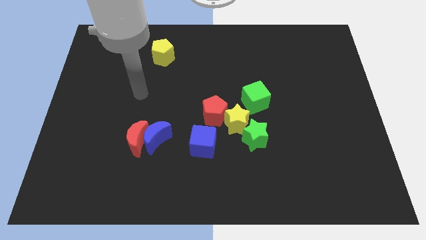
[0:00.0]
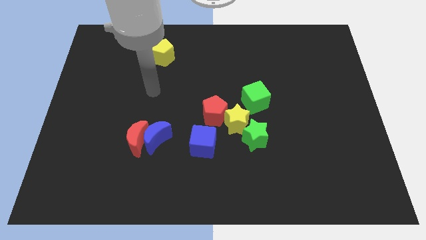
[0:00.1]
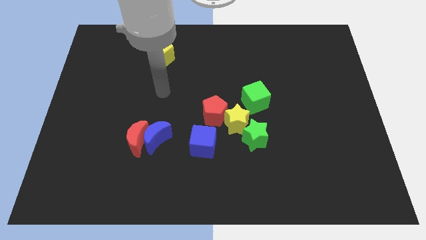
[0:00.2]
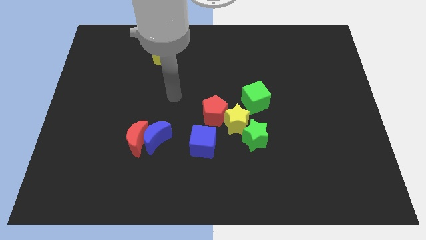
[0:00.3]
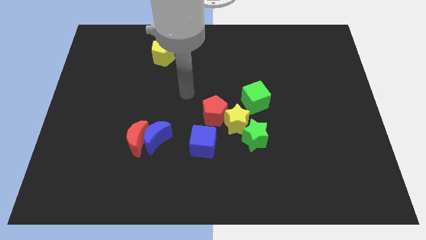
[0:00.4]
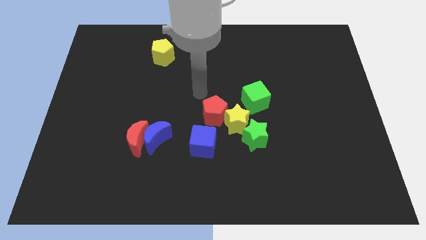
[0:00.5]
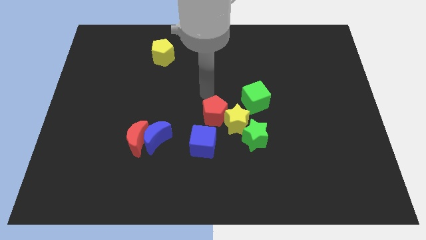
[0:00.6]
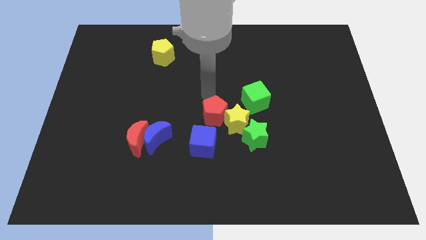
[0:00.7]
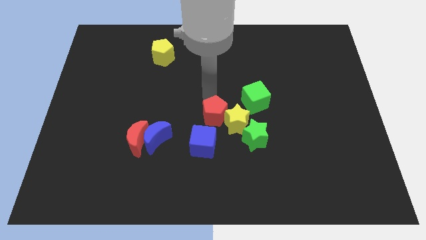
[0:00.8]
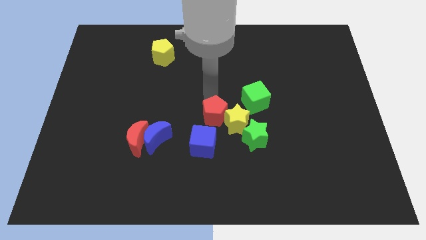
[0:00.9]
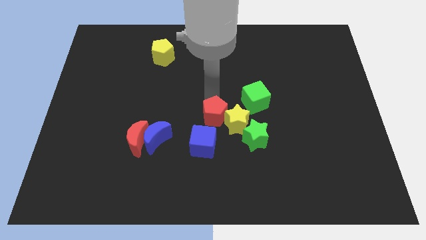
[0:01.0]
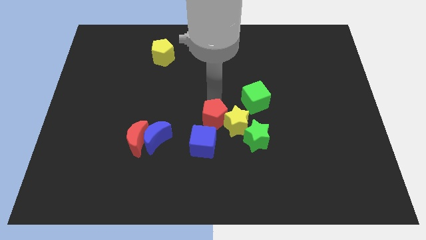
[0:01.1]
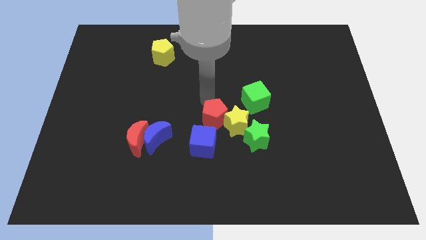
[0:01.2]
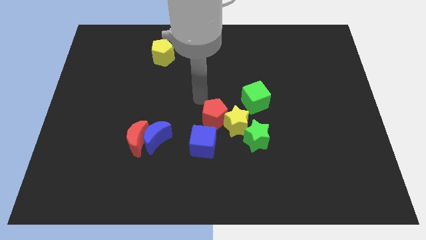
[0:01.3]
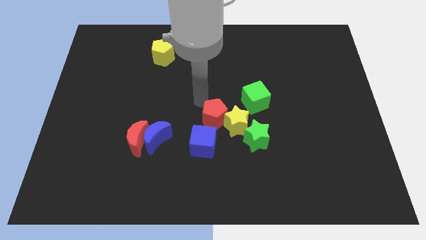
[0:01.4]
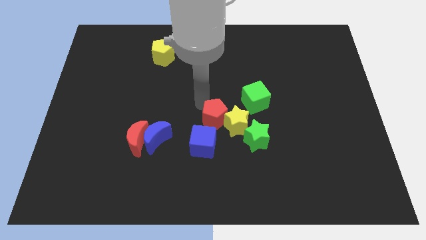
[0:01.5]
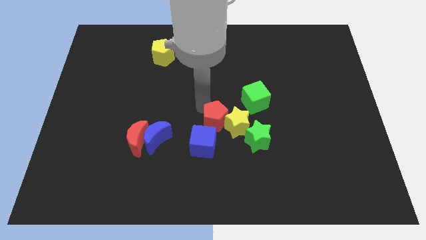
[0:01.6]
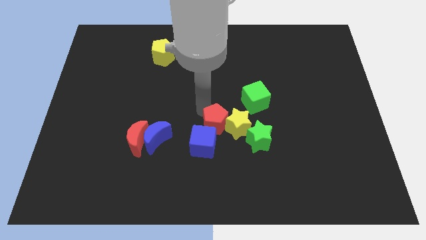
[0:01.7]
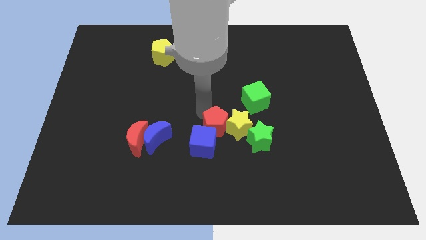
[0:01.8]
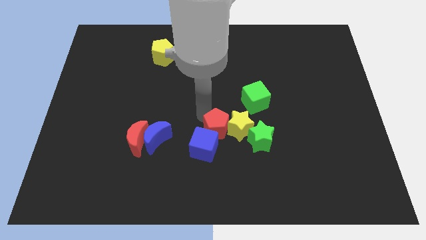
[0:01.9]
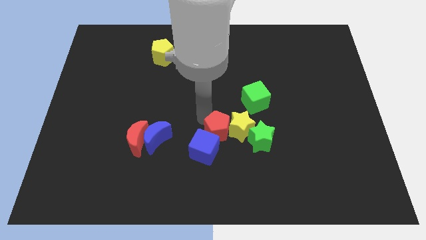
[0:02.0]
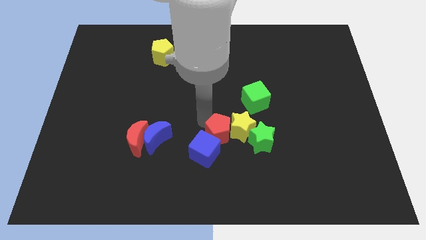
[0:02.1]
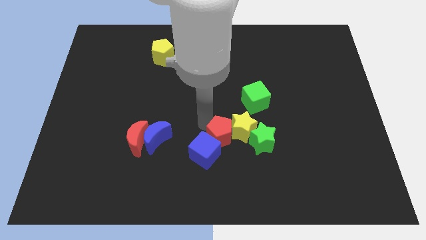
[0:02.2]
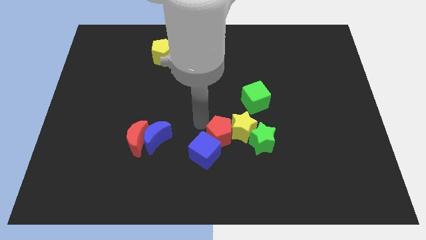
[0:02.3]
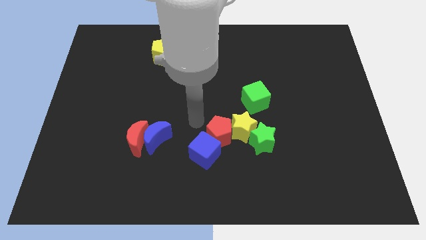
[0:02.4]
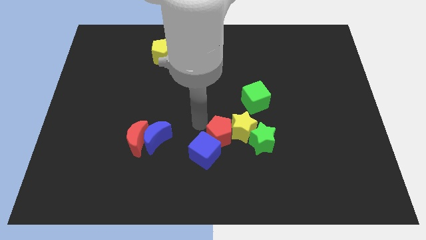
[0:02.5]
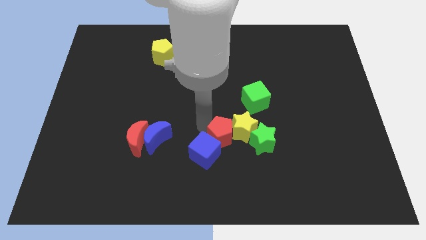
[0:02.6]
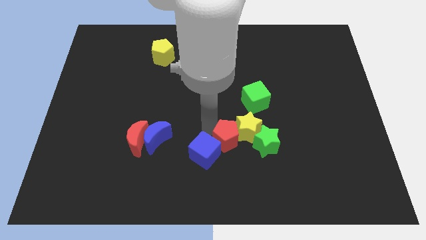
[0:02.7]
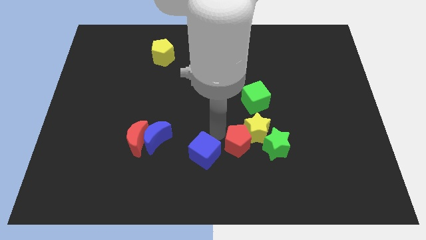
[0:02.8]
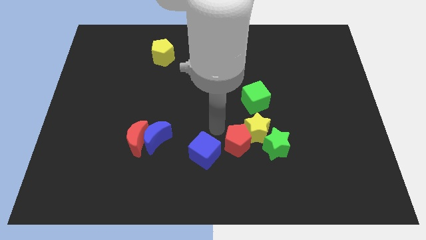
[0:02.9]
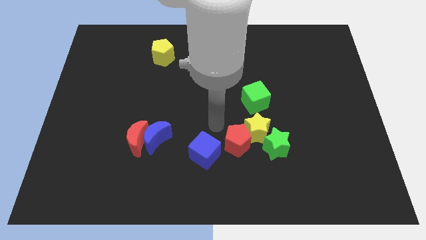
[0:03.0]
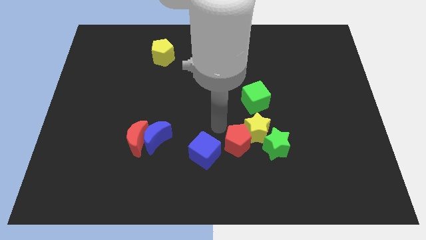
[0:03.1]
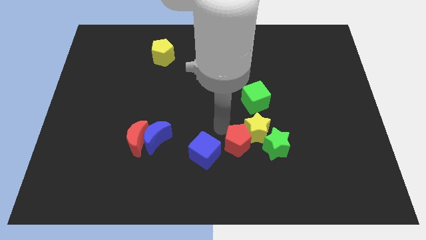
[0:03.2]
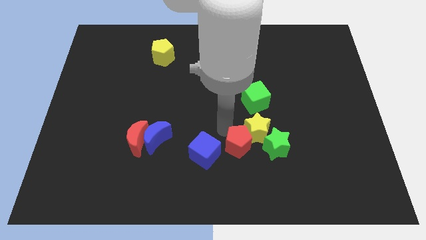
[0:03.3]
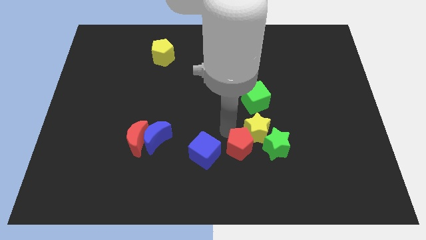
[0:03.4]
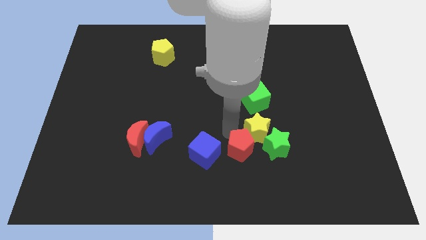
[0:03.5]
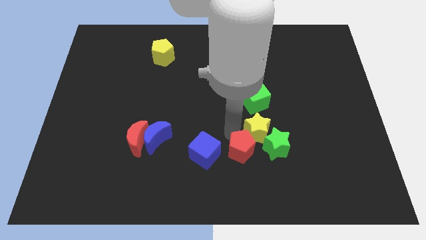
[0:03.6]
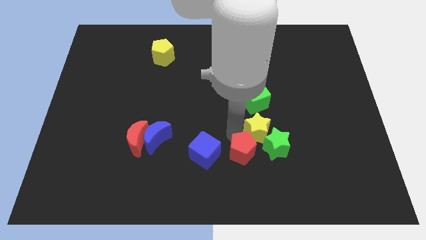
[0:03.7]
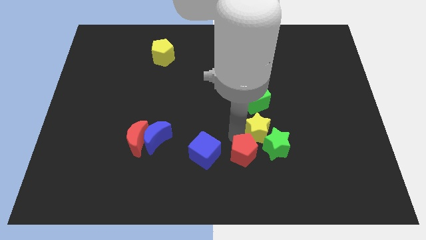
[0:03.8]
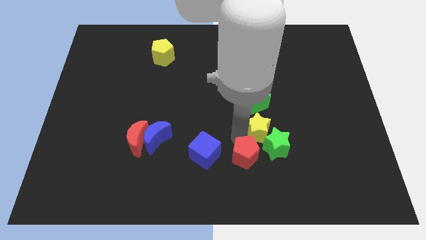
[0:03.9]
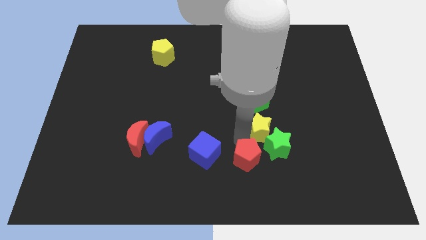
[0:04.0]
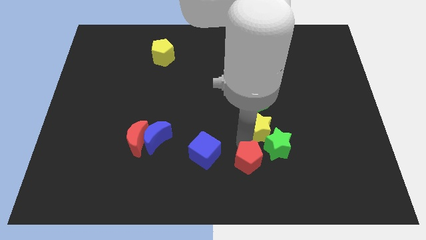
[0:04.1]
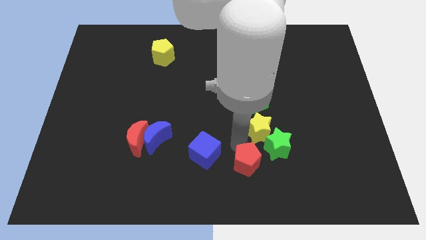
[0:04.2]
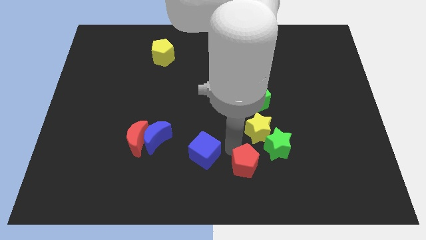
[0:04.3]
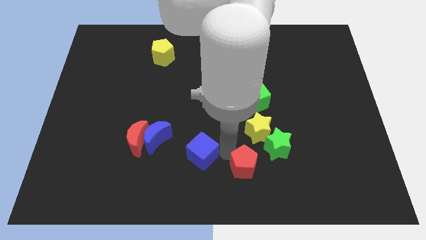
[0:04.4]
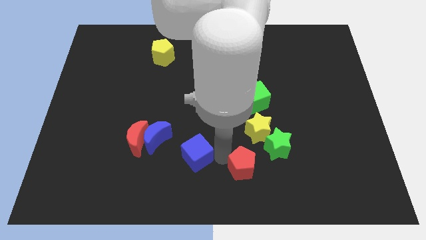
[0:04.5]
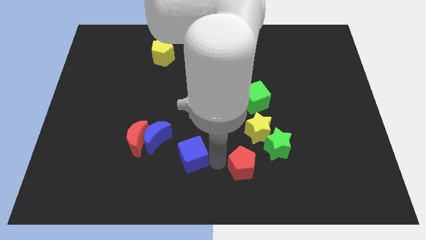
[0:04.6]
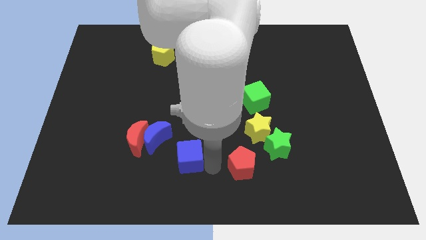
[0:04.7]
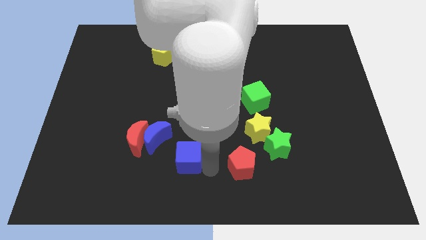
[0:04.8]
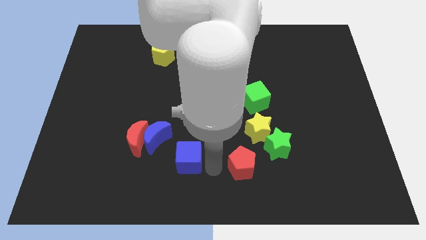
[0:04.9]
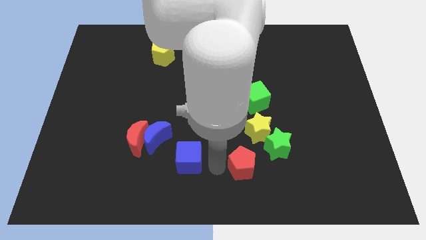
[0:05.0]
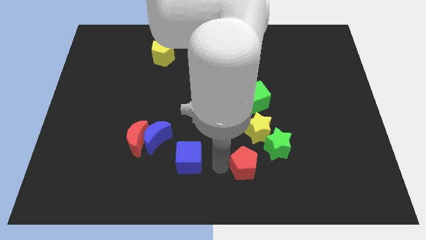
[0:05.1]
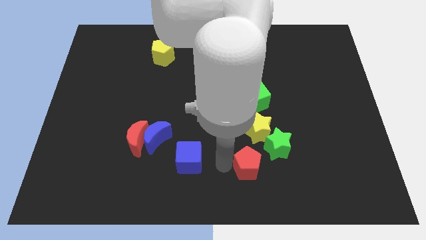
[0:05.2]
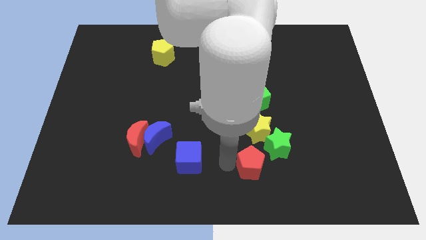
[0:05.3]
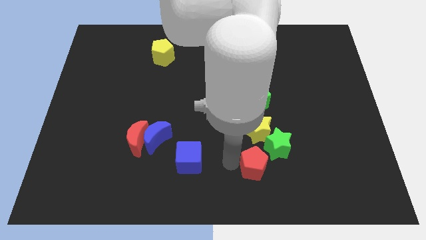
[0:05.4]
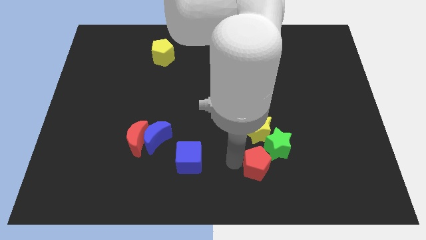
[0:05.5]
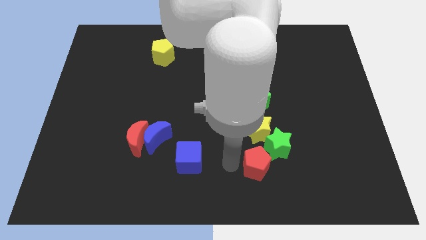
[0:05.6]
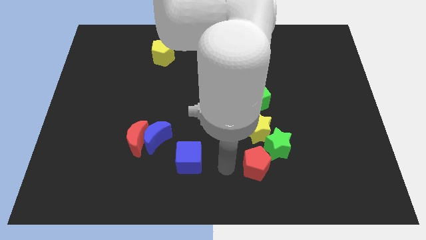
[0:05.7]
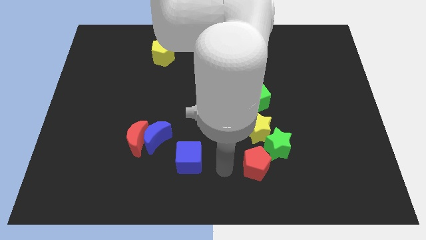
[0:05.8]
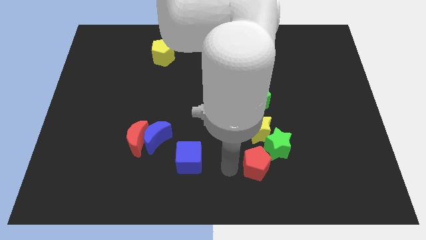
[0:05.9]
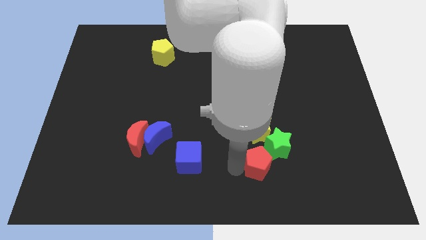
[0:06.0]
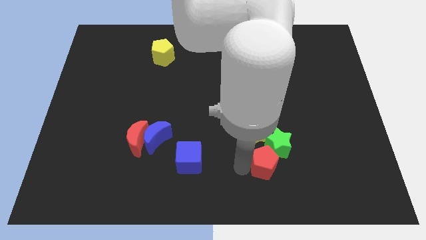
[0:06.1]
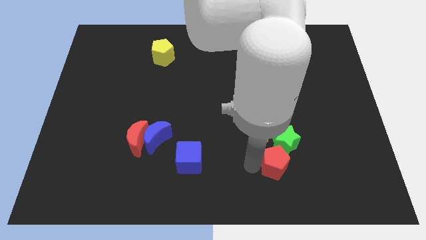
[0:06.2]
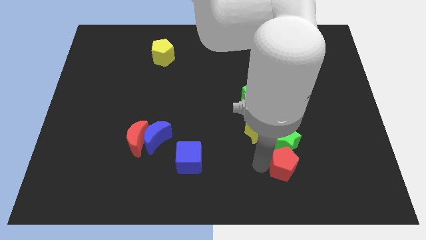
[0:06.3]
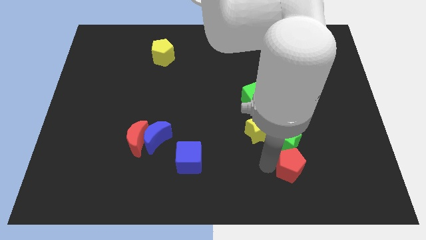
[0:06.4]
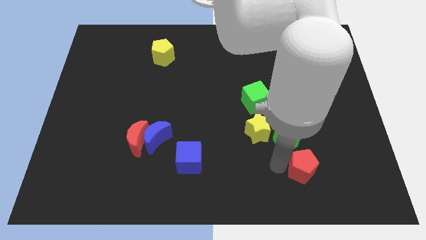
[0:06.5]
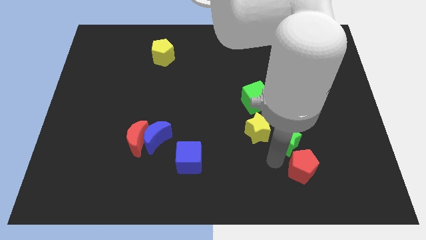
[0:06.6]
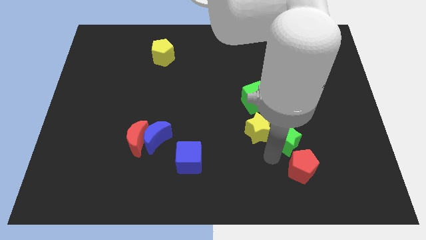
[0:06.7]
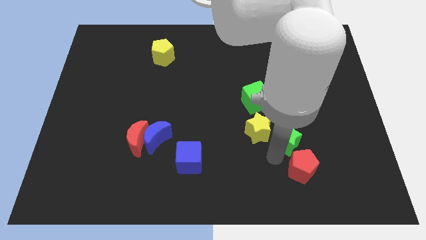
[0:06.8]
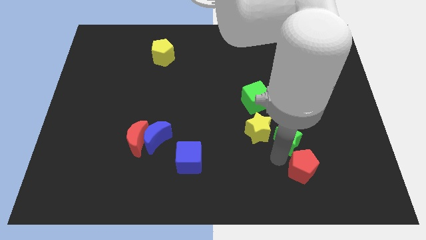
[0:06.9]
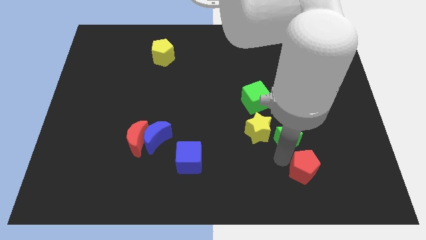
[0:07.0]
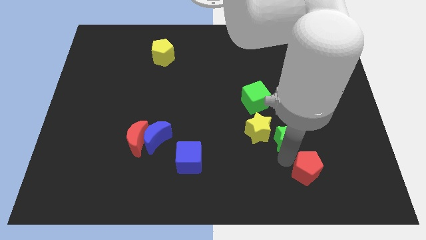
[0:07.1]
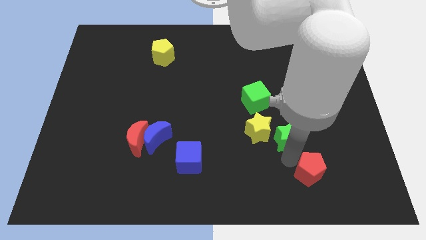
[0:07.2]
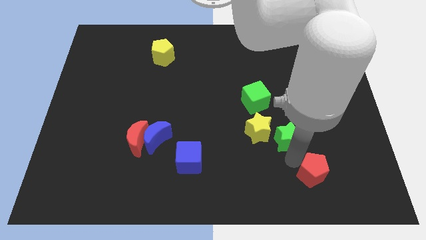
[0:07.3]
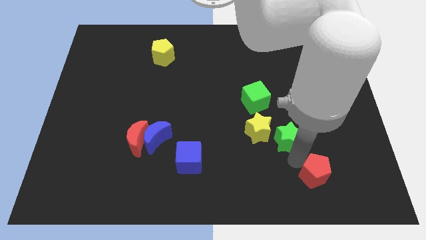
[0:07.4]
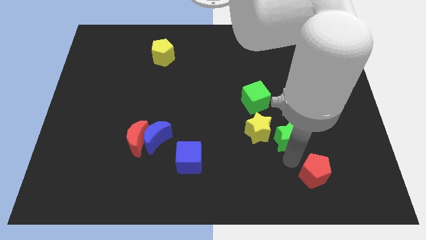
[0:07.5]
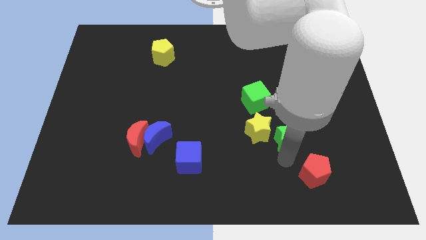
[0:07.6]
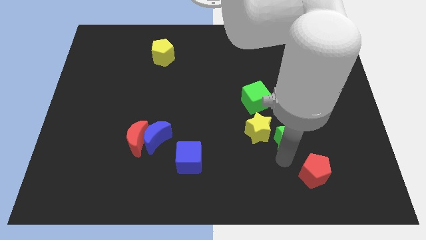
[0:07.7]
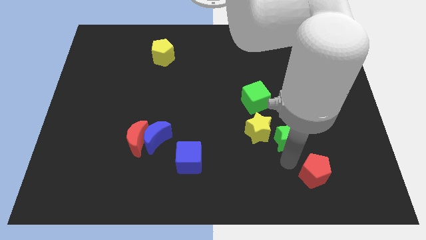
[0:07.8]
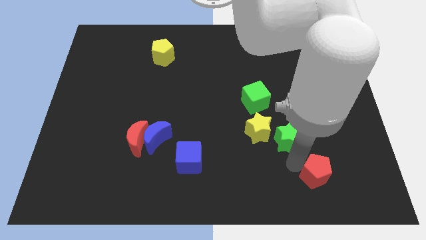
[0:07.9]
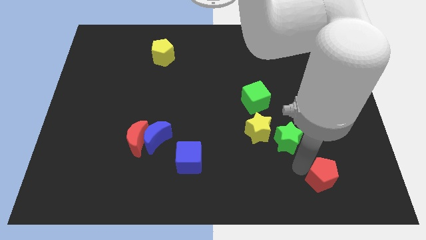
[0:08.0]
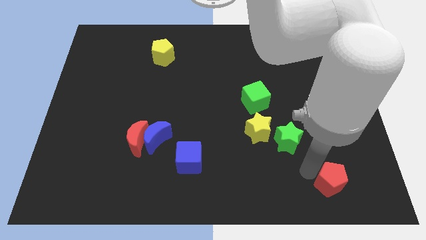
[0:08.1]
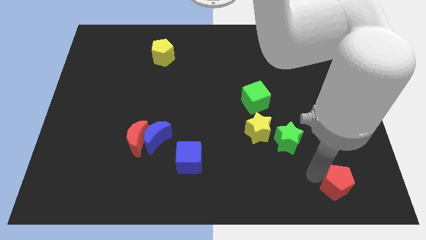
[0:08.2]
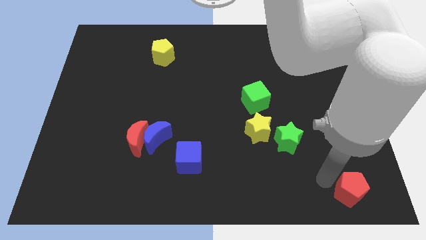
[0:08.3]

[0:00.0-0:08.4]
put the red pentagon to the bottom right
